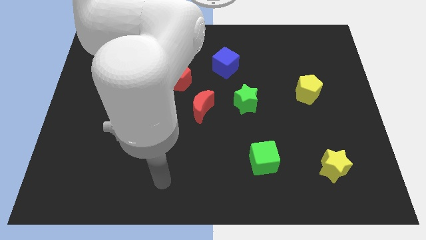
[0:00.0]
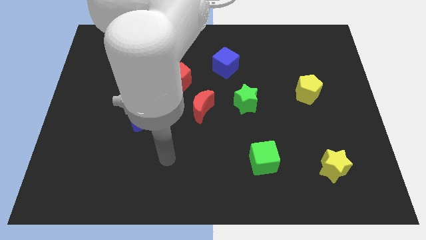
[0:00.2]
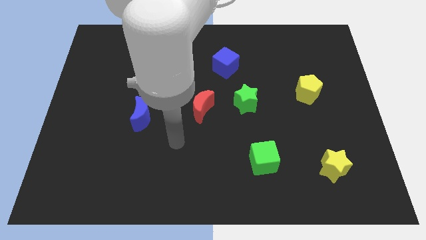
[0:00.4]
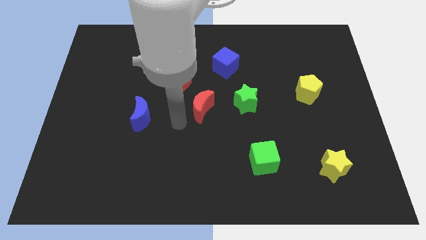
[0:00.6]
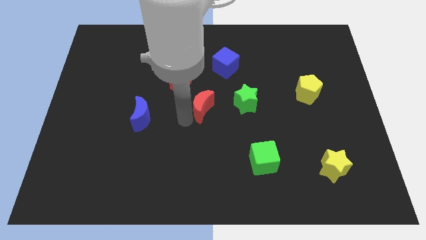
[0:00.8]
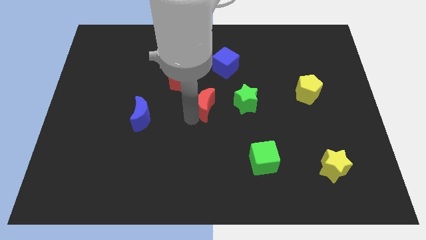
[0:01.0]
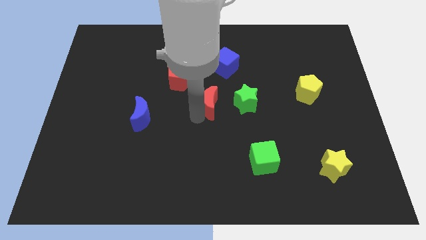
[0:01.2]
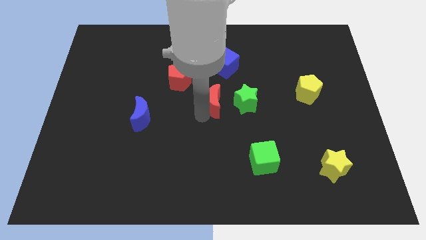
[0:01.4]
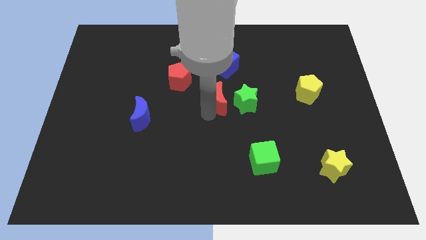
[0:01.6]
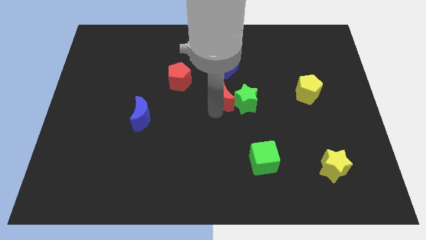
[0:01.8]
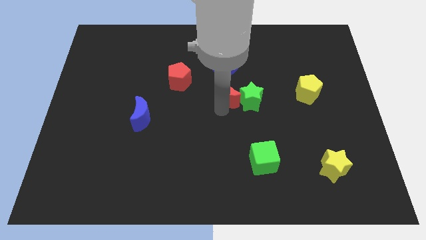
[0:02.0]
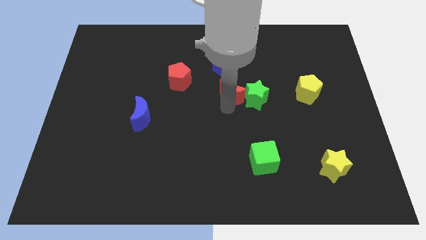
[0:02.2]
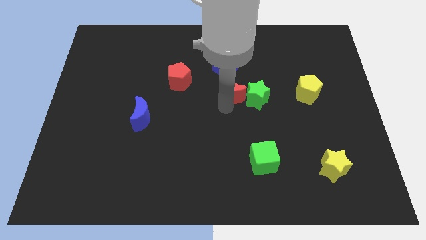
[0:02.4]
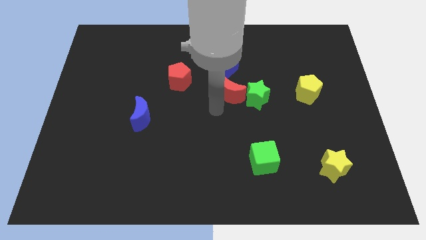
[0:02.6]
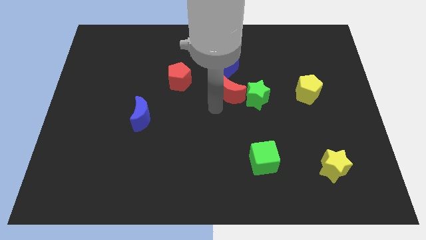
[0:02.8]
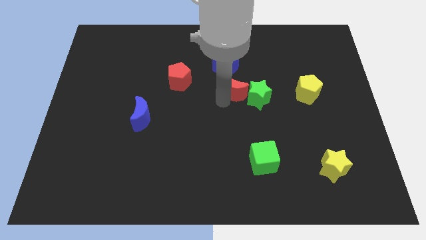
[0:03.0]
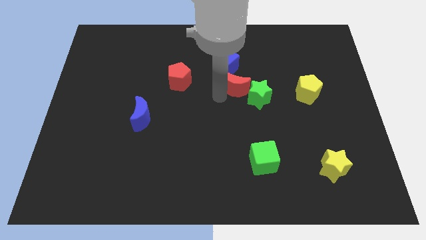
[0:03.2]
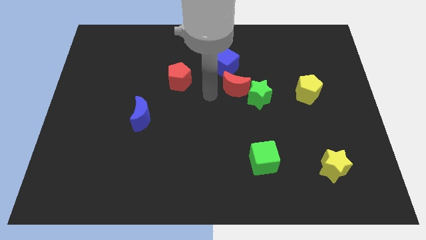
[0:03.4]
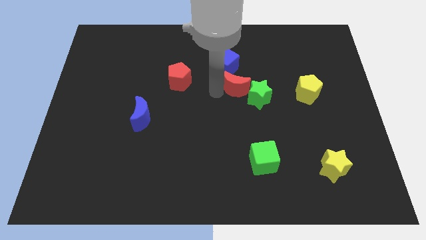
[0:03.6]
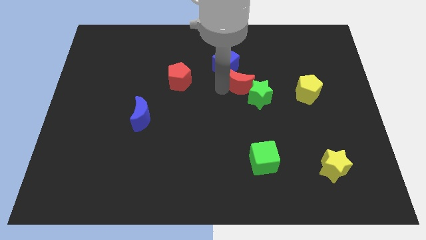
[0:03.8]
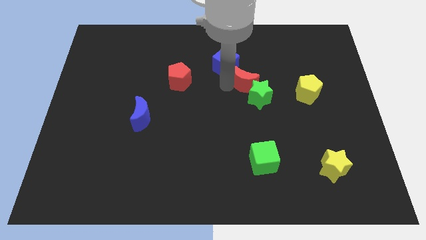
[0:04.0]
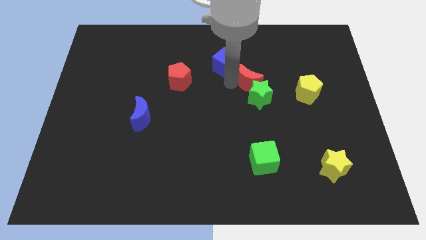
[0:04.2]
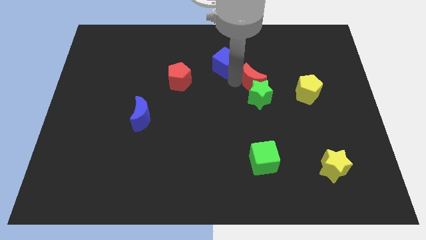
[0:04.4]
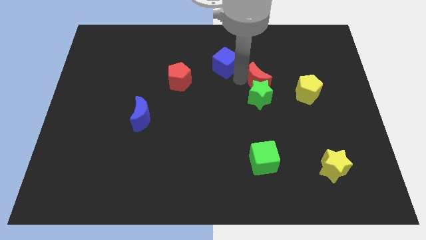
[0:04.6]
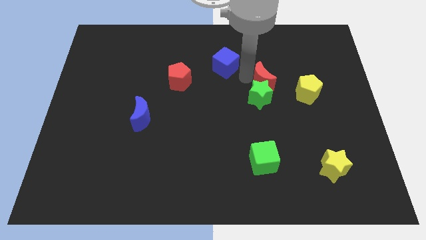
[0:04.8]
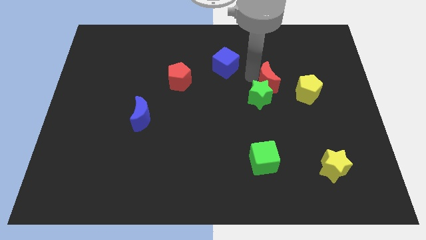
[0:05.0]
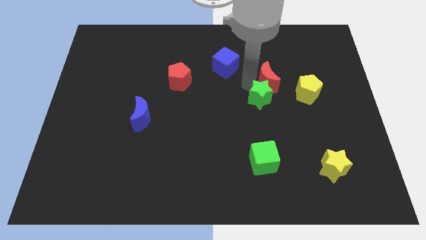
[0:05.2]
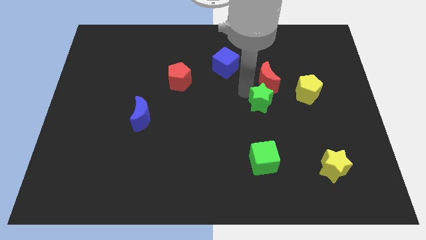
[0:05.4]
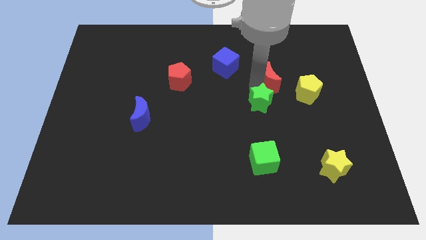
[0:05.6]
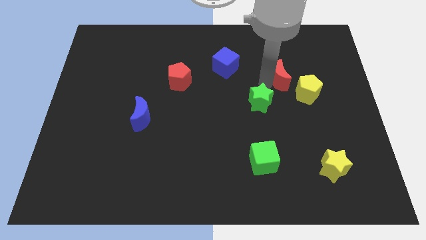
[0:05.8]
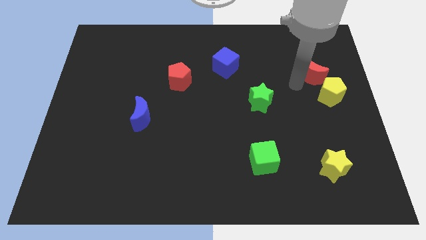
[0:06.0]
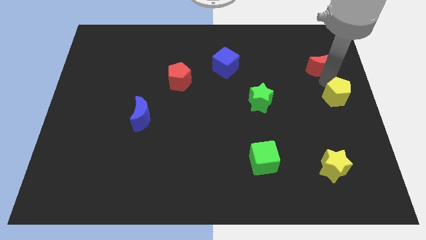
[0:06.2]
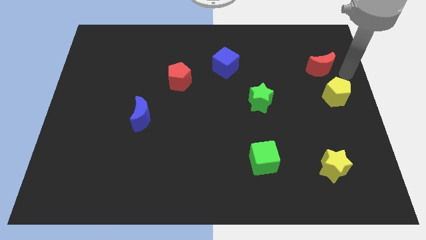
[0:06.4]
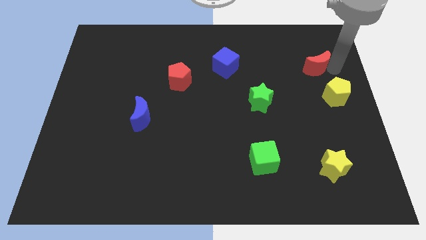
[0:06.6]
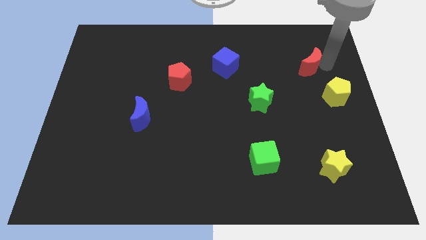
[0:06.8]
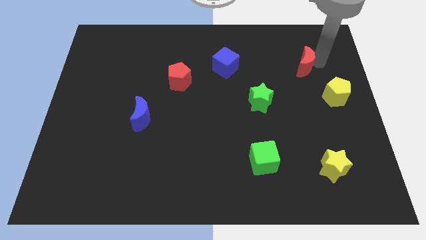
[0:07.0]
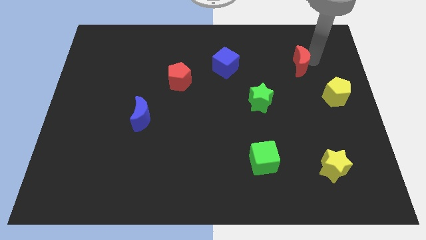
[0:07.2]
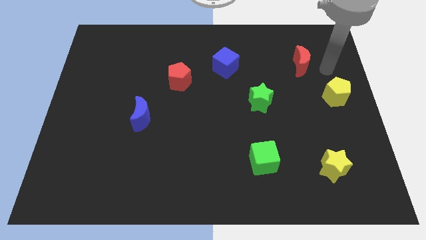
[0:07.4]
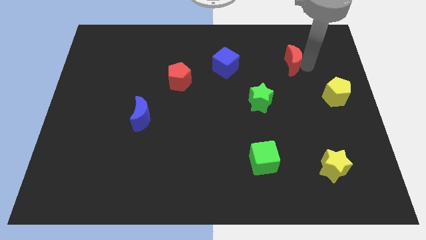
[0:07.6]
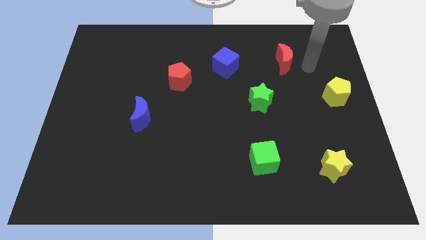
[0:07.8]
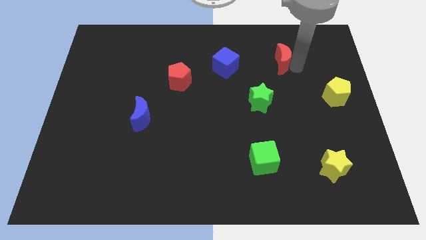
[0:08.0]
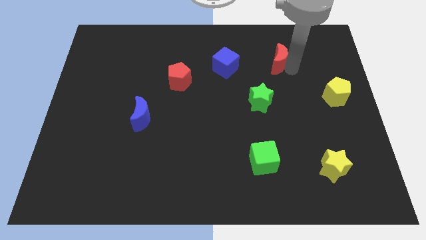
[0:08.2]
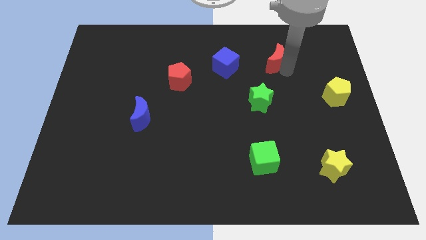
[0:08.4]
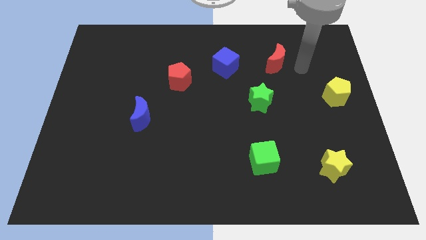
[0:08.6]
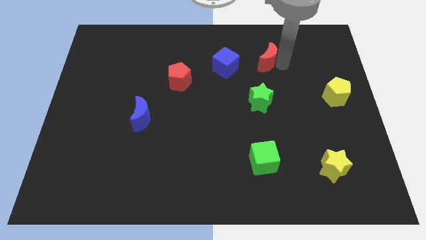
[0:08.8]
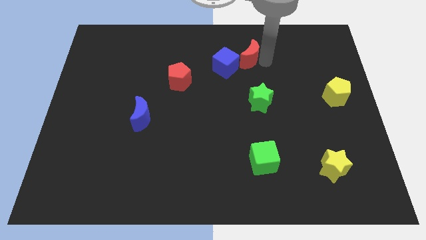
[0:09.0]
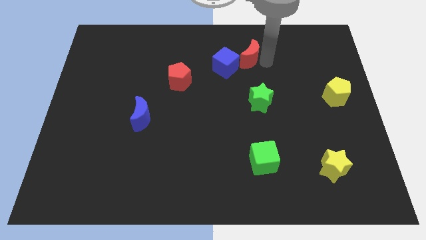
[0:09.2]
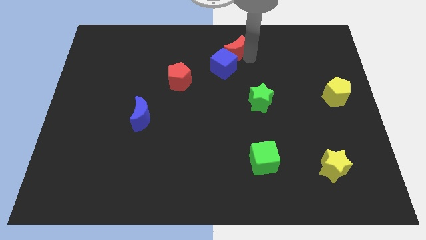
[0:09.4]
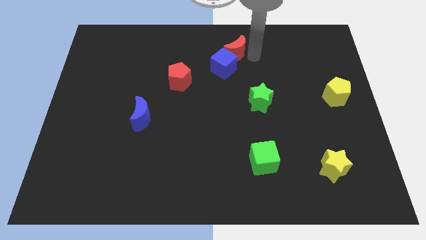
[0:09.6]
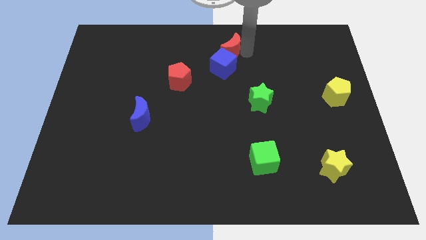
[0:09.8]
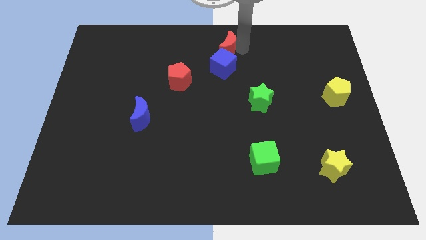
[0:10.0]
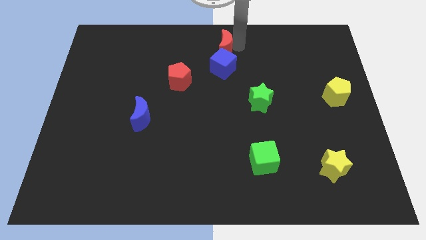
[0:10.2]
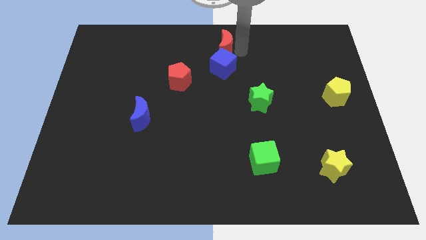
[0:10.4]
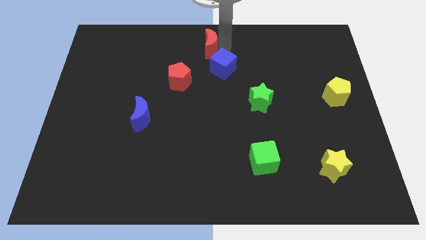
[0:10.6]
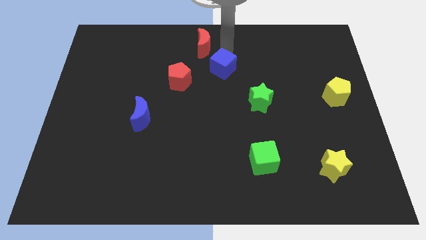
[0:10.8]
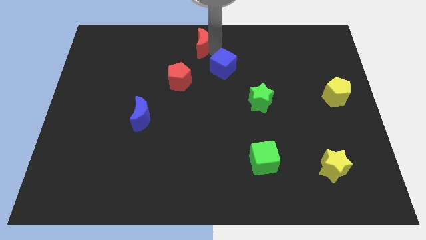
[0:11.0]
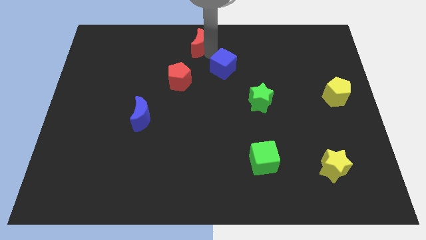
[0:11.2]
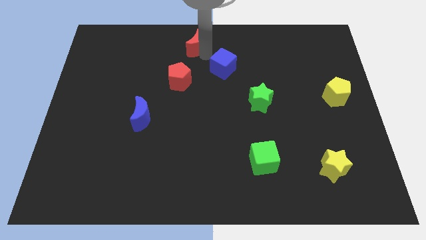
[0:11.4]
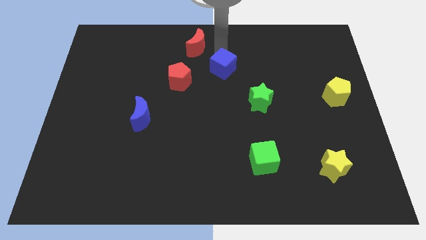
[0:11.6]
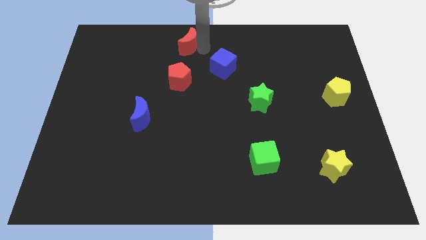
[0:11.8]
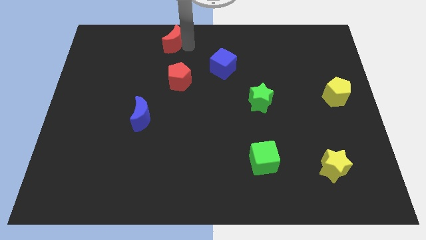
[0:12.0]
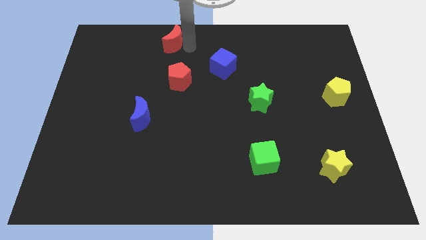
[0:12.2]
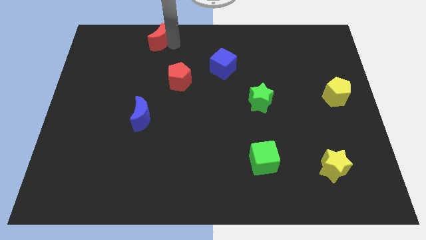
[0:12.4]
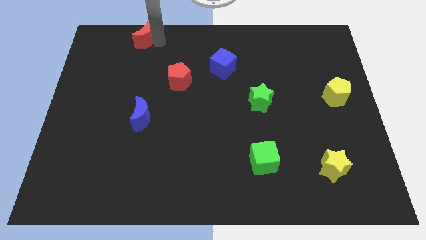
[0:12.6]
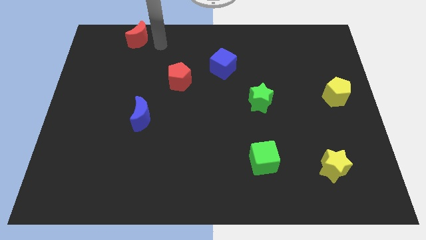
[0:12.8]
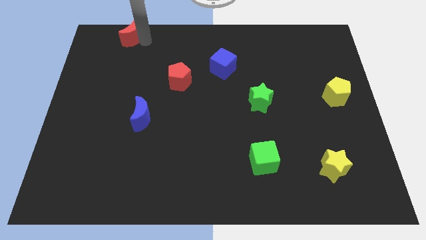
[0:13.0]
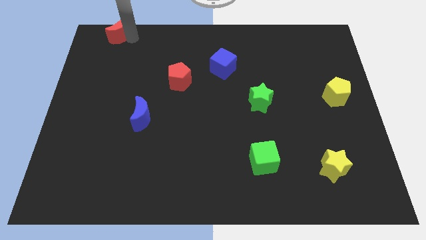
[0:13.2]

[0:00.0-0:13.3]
put the red moon to the top left

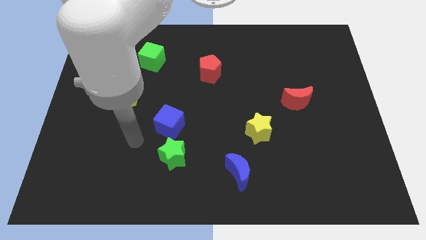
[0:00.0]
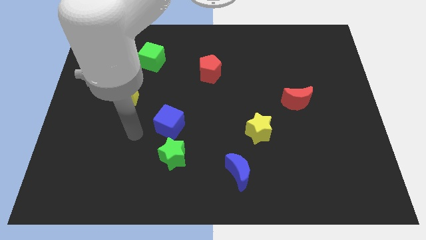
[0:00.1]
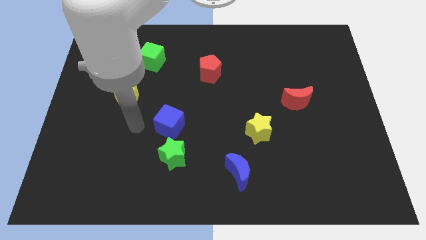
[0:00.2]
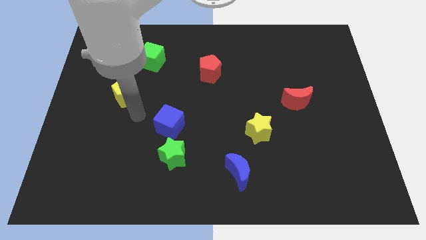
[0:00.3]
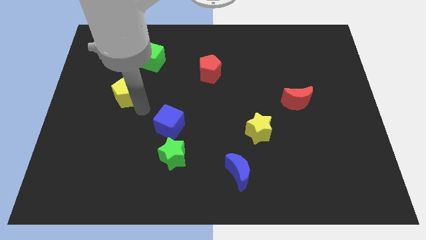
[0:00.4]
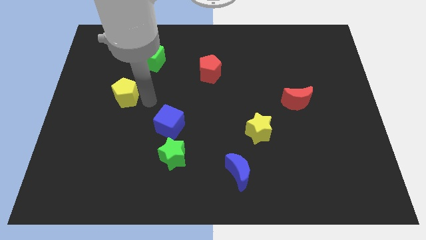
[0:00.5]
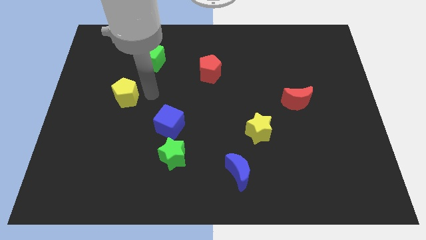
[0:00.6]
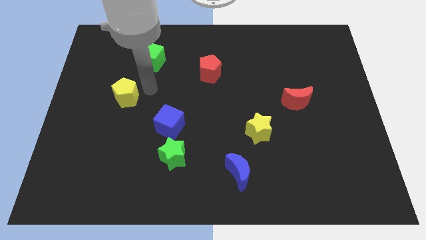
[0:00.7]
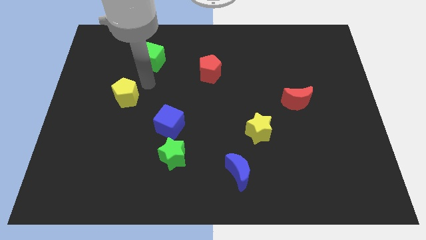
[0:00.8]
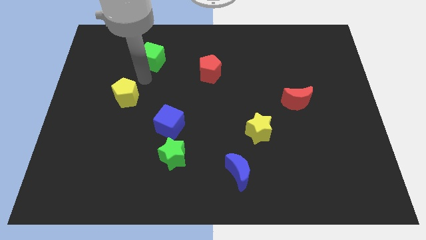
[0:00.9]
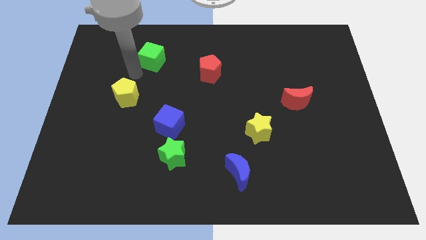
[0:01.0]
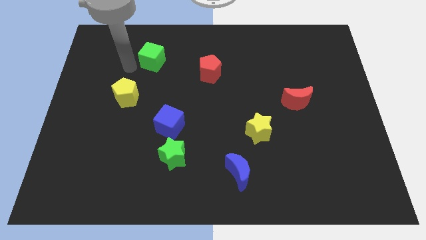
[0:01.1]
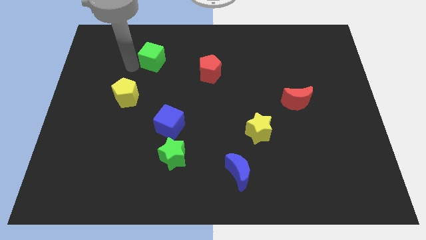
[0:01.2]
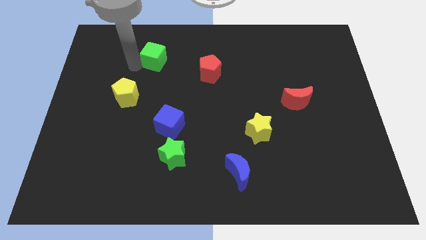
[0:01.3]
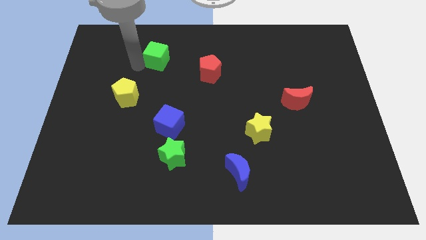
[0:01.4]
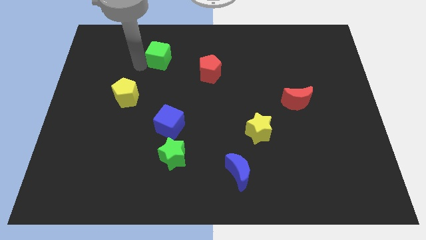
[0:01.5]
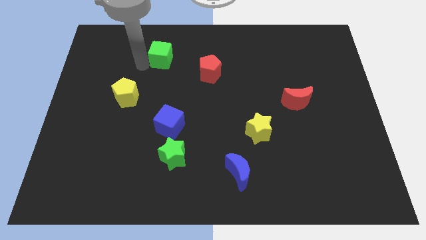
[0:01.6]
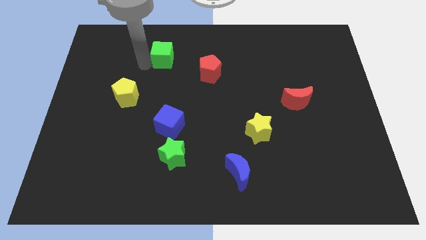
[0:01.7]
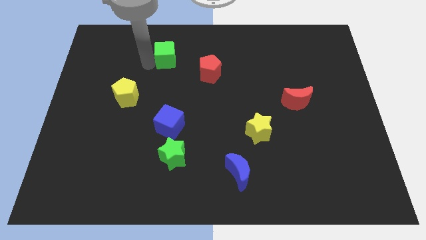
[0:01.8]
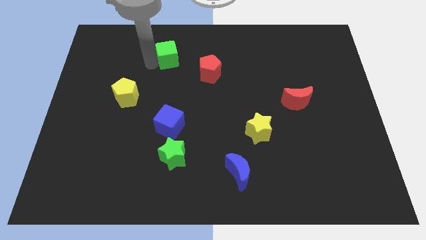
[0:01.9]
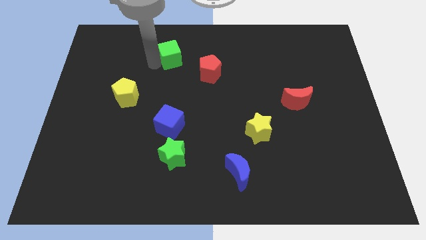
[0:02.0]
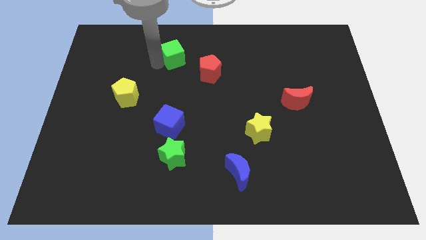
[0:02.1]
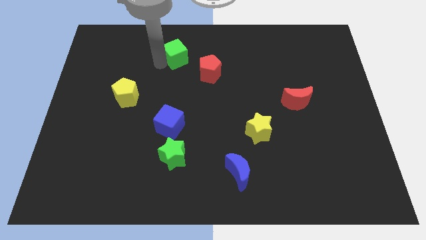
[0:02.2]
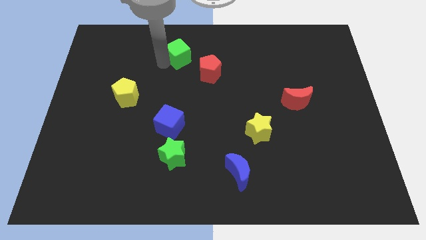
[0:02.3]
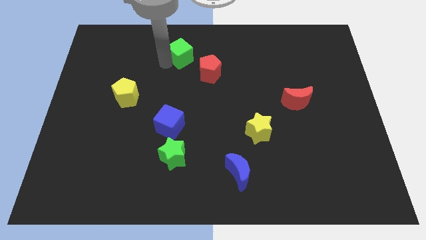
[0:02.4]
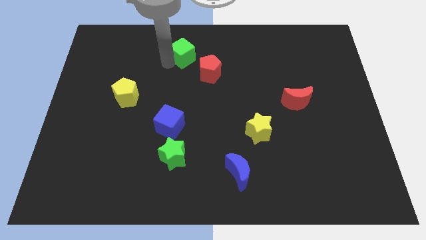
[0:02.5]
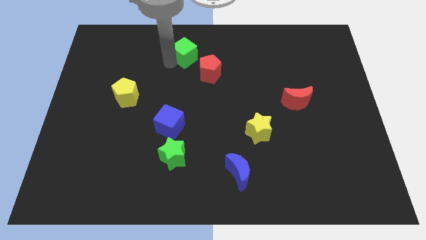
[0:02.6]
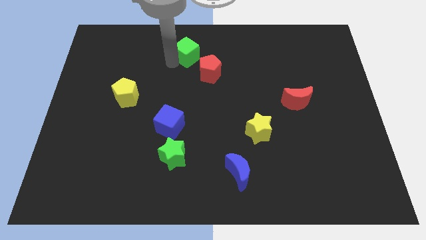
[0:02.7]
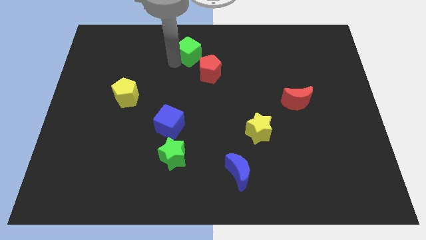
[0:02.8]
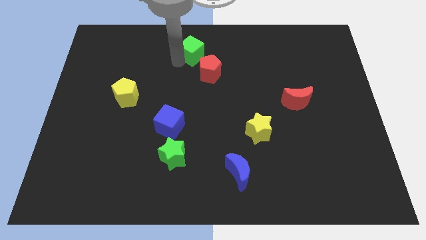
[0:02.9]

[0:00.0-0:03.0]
slide the green cube to the top side
